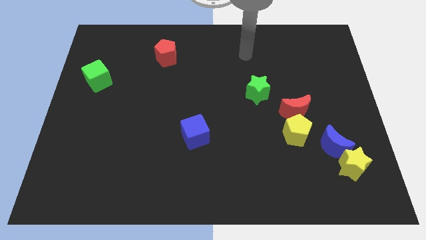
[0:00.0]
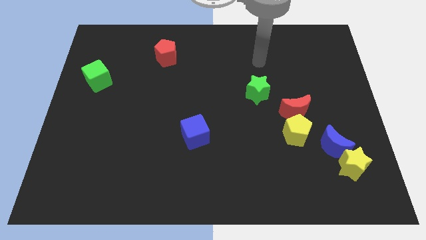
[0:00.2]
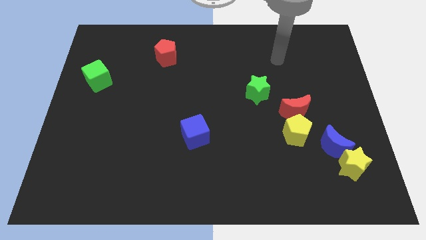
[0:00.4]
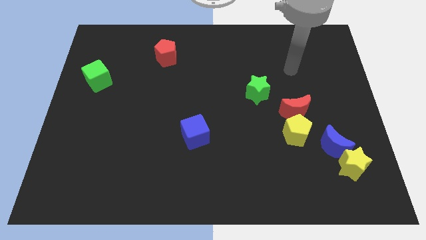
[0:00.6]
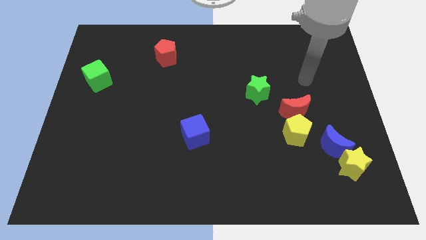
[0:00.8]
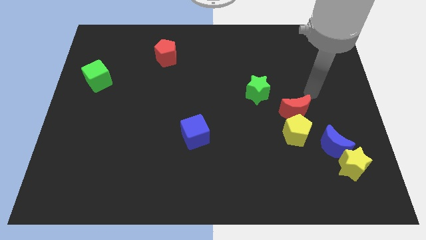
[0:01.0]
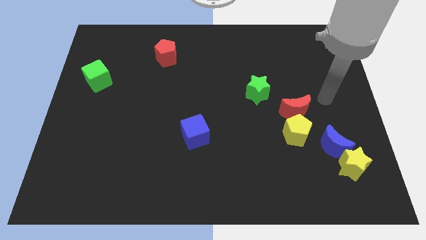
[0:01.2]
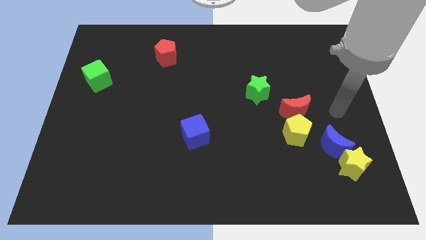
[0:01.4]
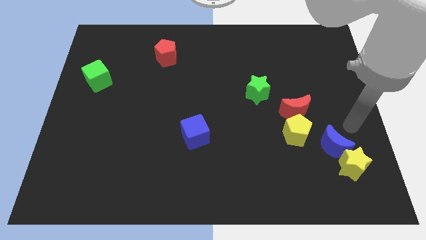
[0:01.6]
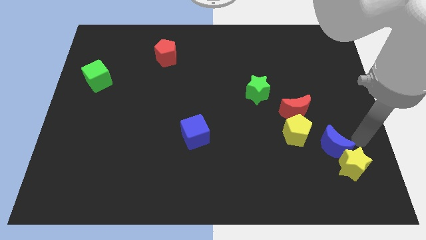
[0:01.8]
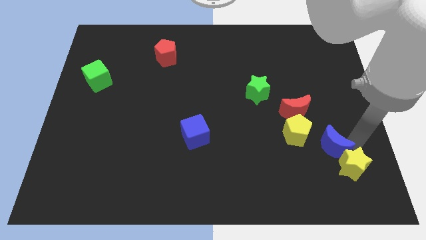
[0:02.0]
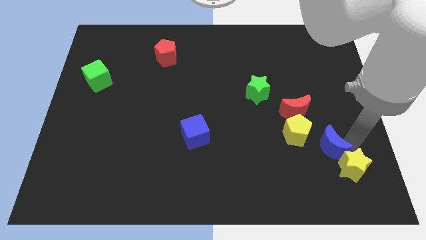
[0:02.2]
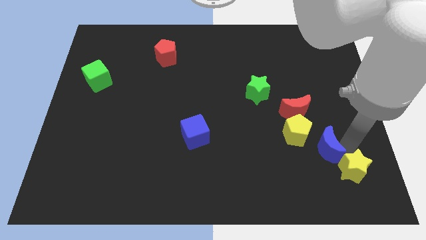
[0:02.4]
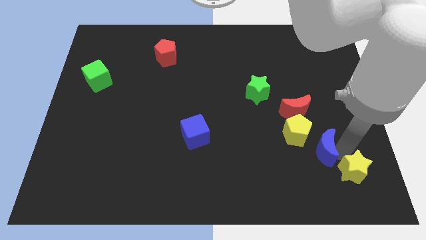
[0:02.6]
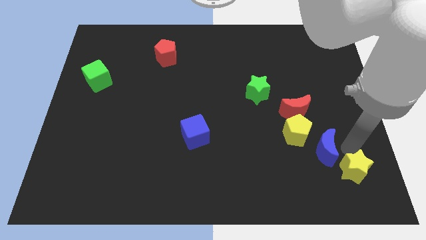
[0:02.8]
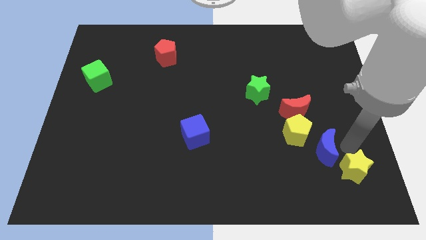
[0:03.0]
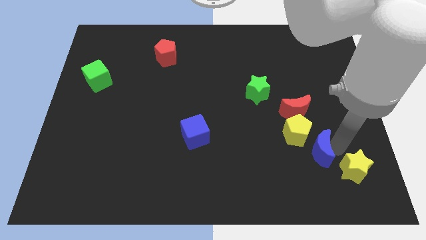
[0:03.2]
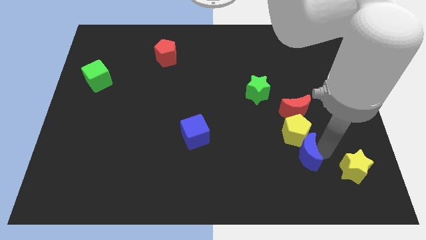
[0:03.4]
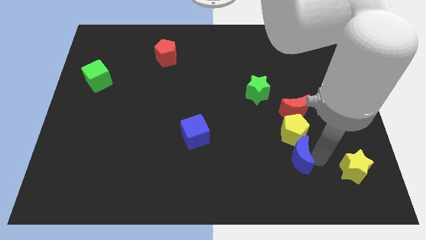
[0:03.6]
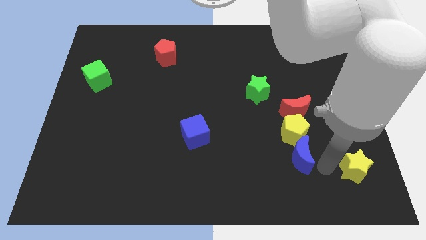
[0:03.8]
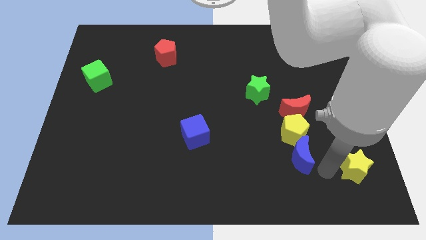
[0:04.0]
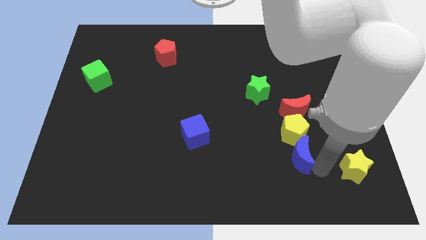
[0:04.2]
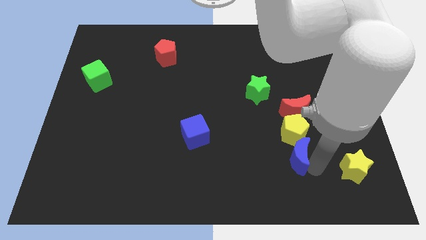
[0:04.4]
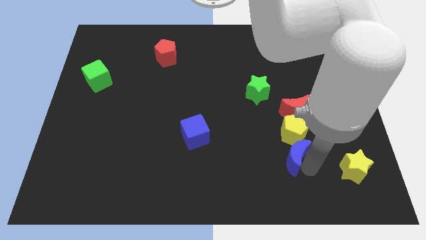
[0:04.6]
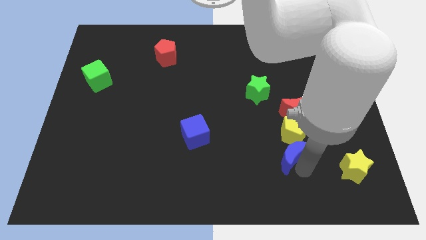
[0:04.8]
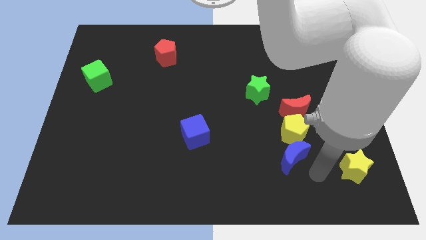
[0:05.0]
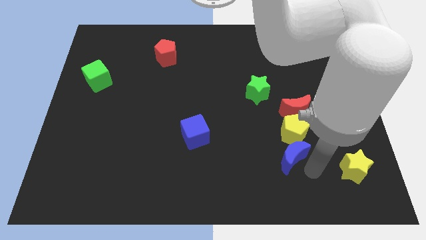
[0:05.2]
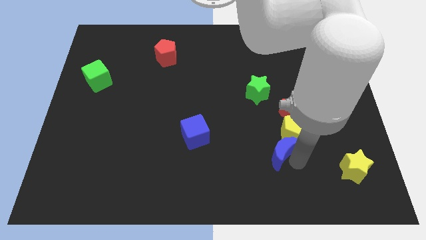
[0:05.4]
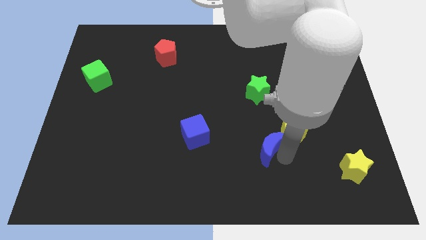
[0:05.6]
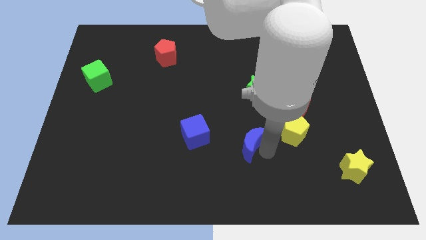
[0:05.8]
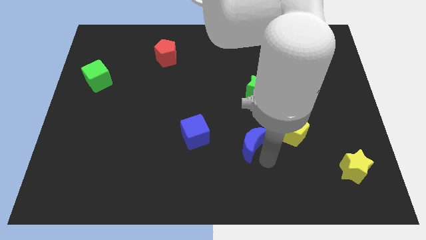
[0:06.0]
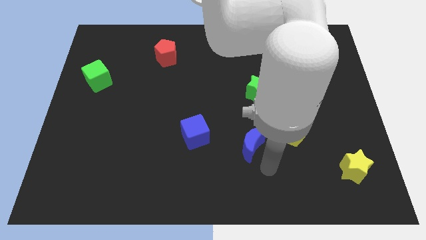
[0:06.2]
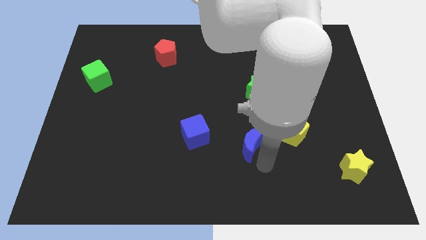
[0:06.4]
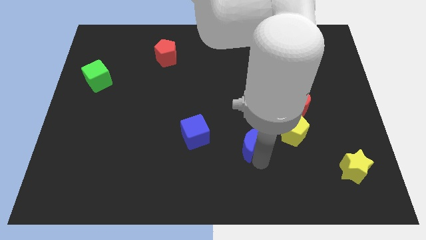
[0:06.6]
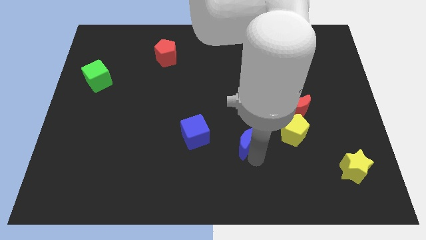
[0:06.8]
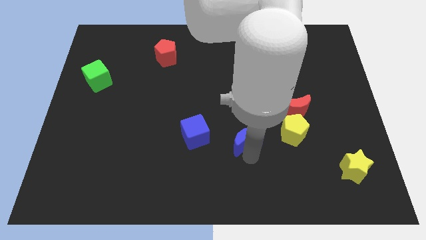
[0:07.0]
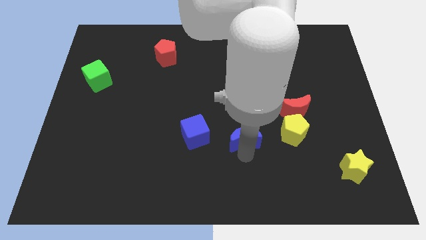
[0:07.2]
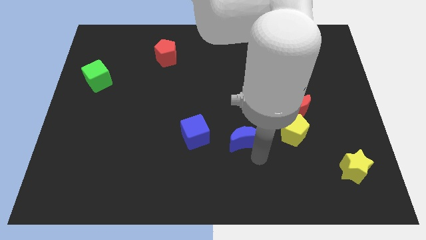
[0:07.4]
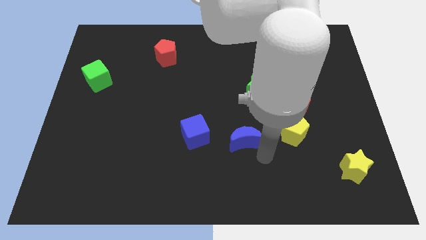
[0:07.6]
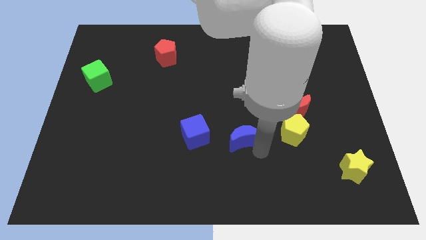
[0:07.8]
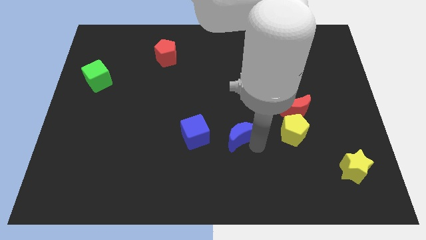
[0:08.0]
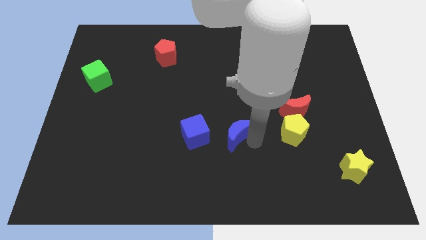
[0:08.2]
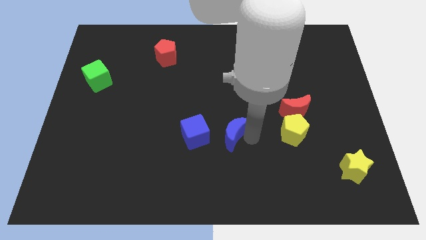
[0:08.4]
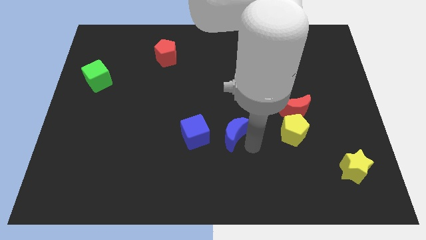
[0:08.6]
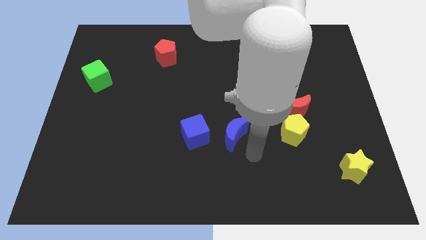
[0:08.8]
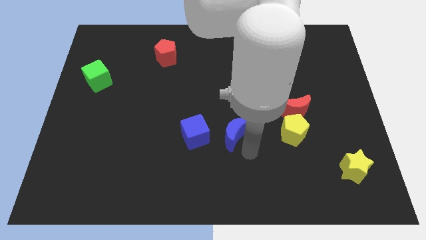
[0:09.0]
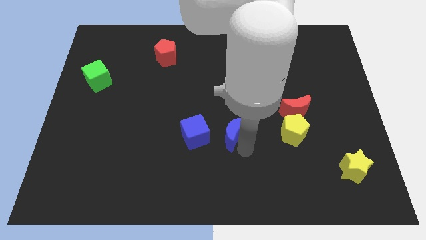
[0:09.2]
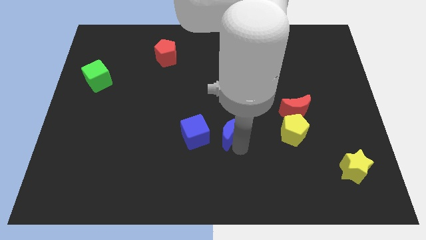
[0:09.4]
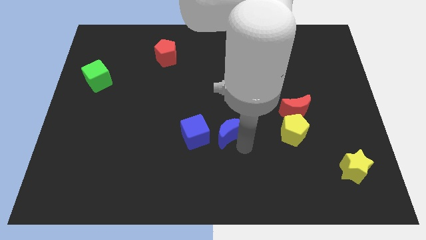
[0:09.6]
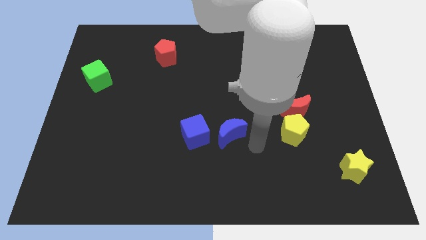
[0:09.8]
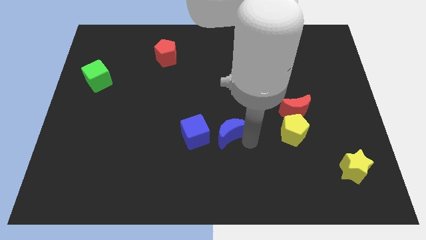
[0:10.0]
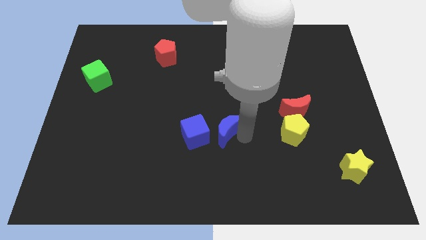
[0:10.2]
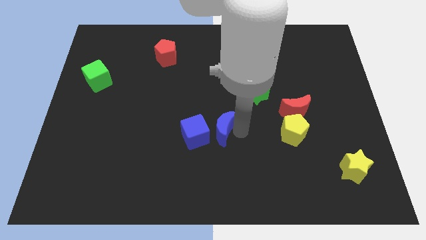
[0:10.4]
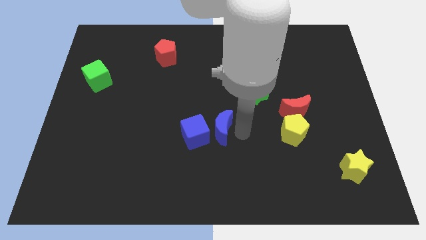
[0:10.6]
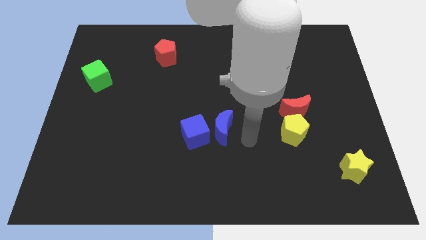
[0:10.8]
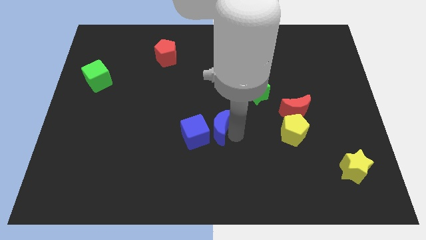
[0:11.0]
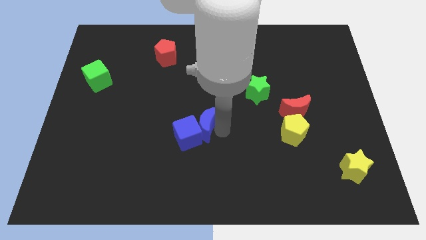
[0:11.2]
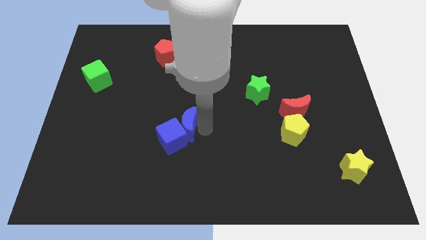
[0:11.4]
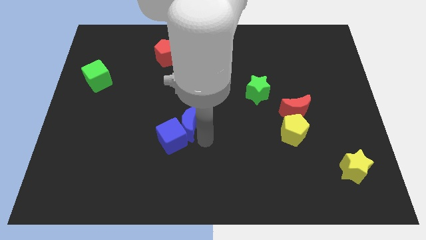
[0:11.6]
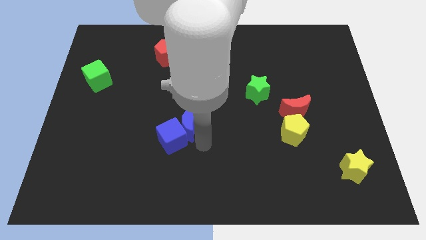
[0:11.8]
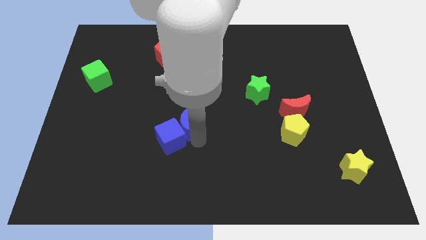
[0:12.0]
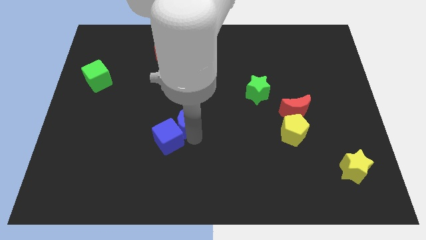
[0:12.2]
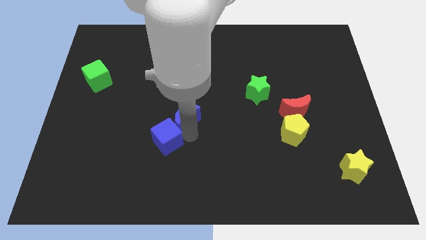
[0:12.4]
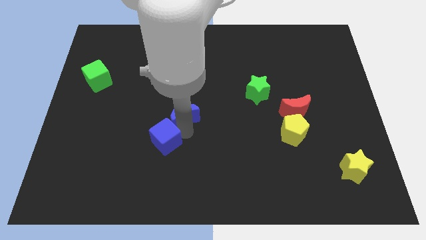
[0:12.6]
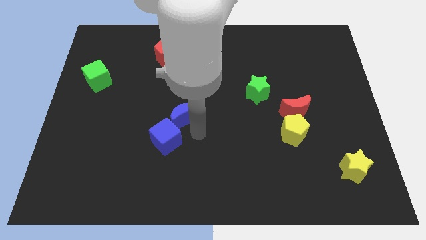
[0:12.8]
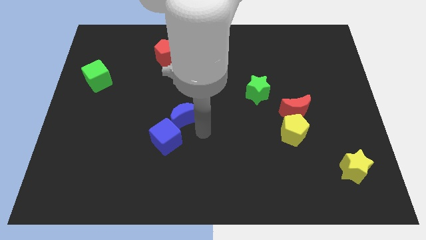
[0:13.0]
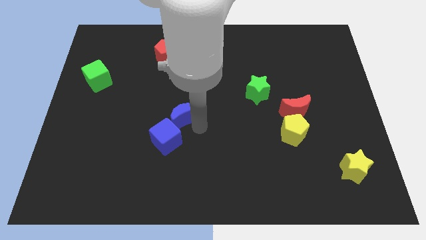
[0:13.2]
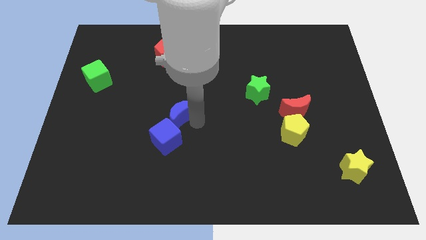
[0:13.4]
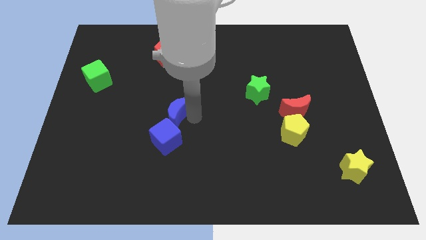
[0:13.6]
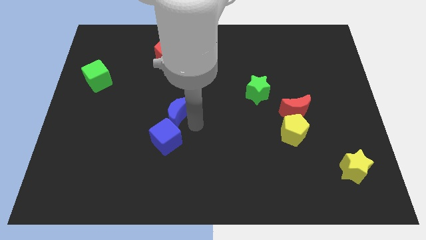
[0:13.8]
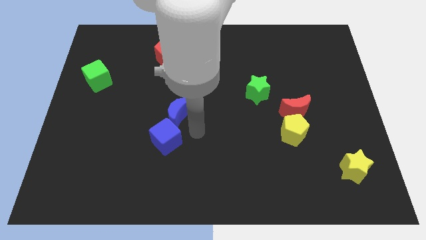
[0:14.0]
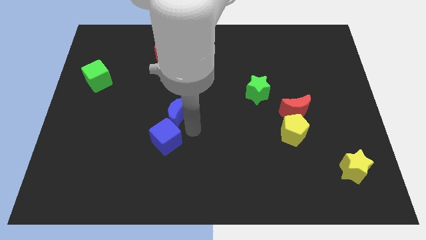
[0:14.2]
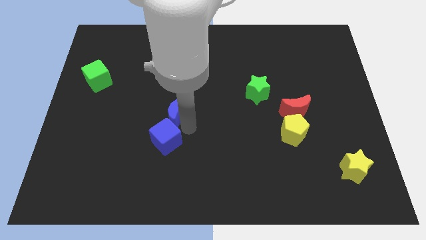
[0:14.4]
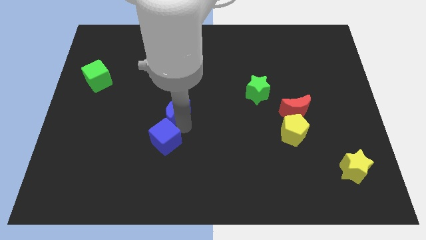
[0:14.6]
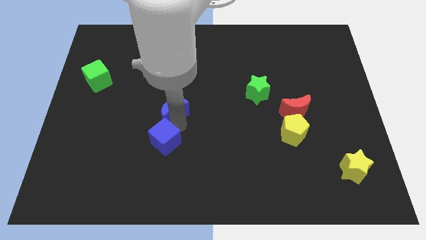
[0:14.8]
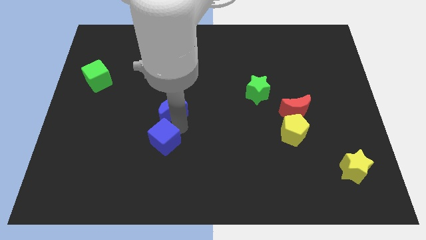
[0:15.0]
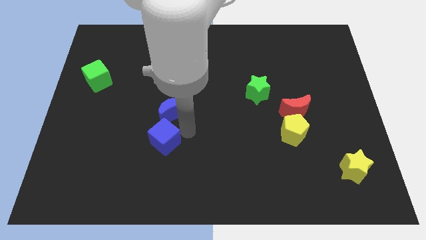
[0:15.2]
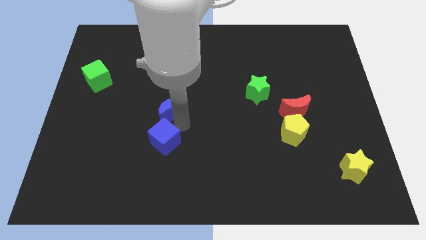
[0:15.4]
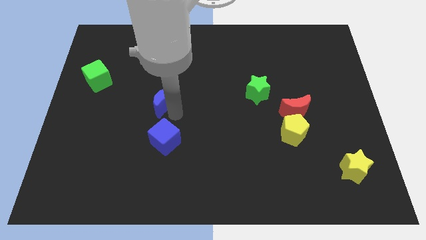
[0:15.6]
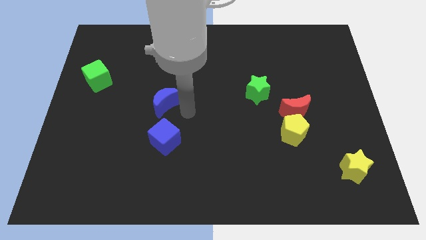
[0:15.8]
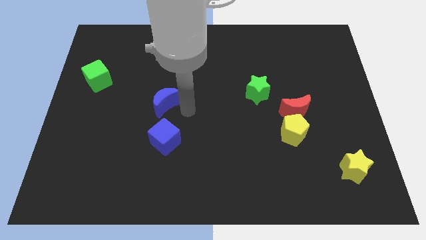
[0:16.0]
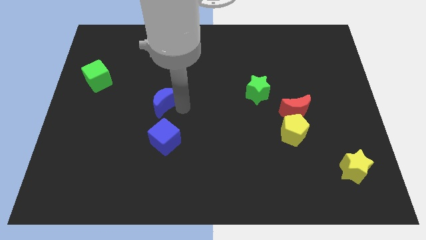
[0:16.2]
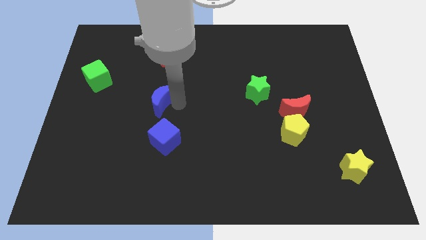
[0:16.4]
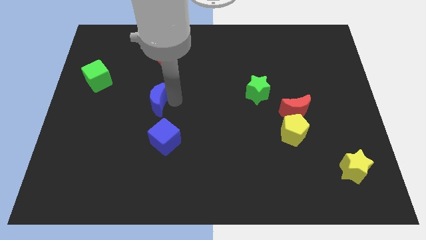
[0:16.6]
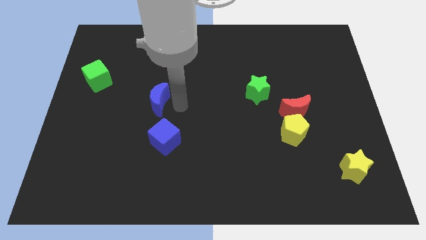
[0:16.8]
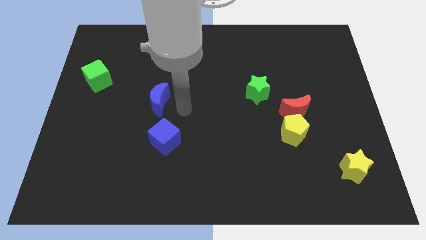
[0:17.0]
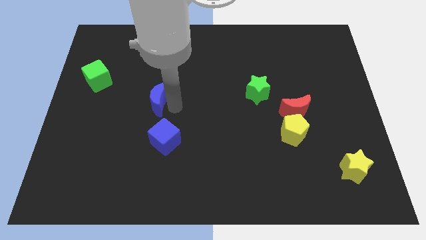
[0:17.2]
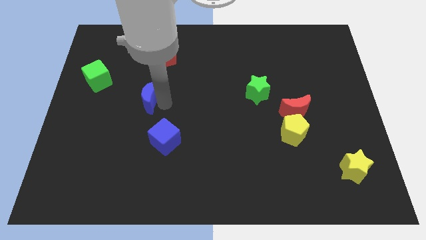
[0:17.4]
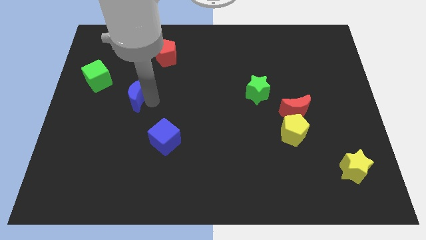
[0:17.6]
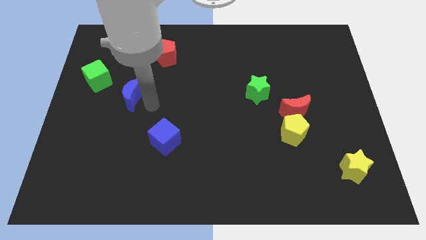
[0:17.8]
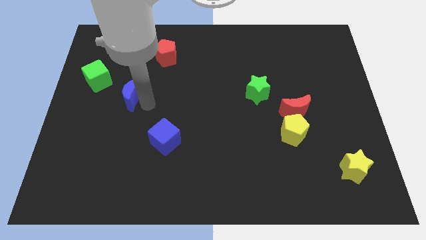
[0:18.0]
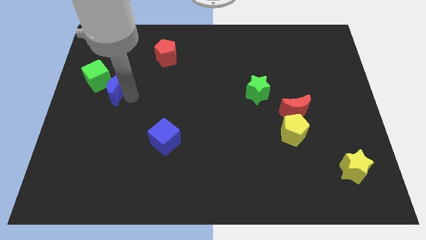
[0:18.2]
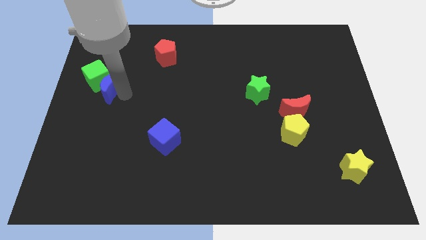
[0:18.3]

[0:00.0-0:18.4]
move the blue moon towards the green cube
